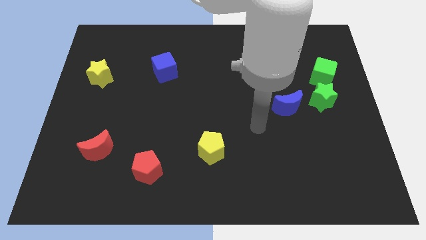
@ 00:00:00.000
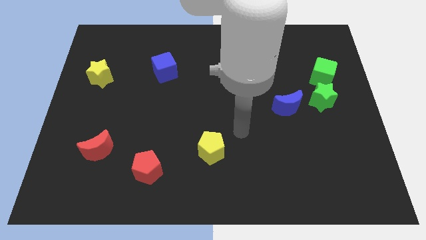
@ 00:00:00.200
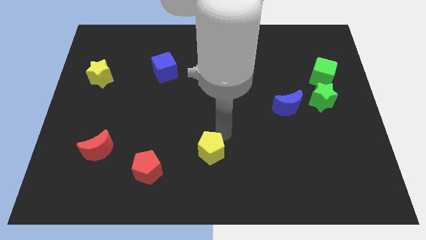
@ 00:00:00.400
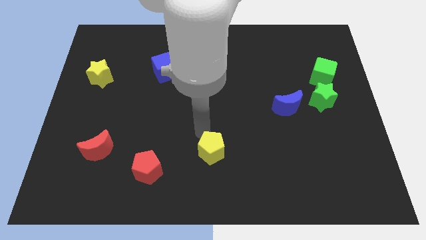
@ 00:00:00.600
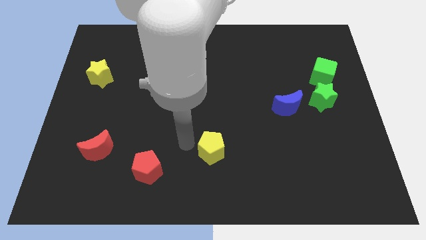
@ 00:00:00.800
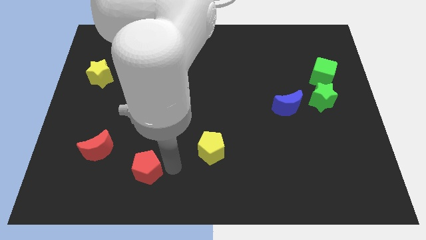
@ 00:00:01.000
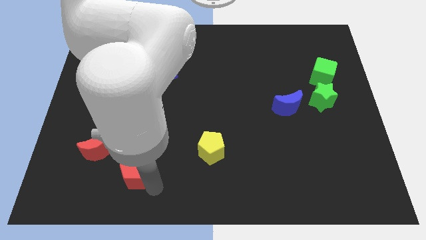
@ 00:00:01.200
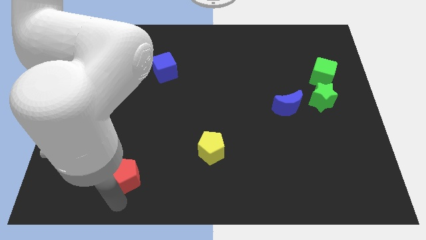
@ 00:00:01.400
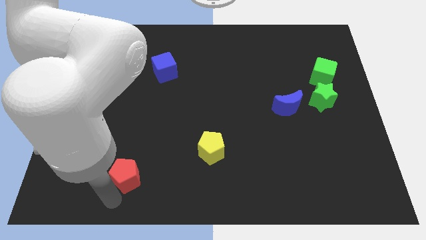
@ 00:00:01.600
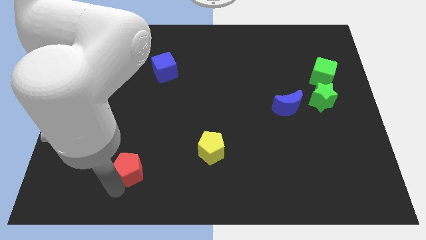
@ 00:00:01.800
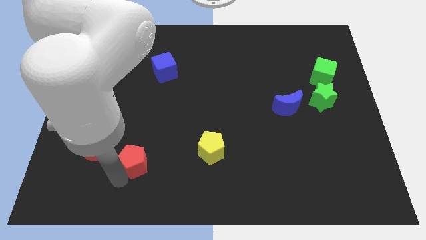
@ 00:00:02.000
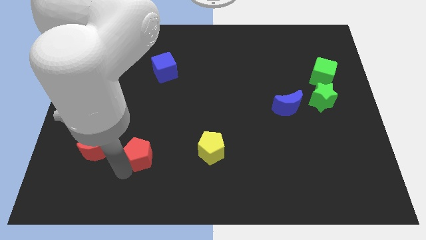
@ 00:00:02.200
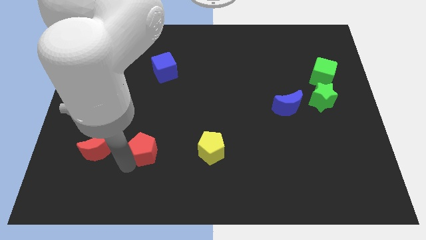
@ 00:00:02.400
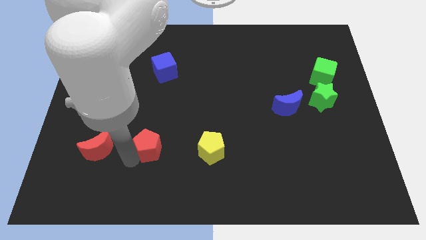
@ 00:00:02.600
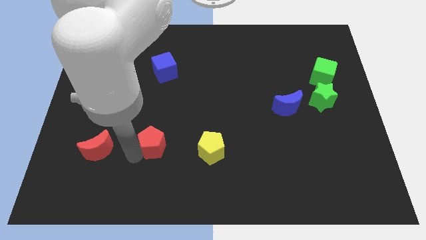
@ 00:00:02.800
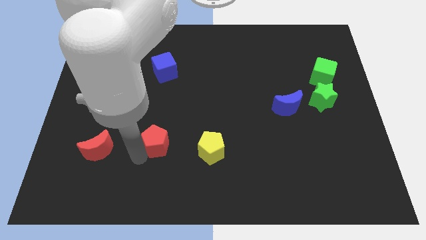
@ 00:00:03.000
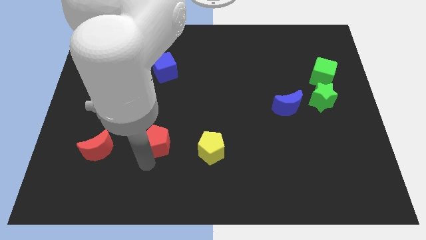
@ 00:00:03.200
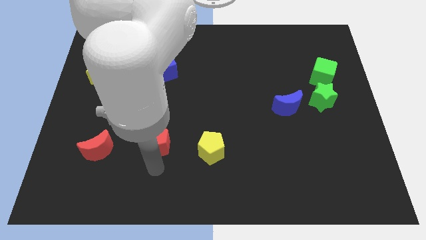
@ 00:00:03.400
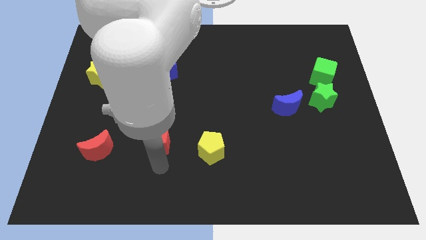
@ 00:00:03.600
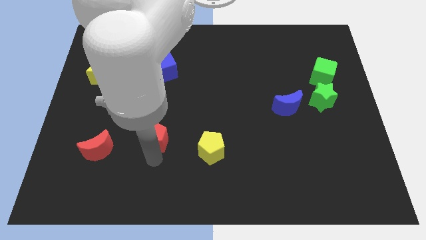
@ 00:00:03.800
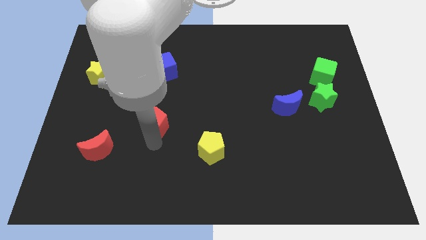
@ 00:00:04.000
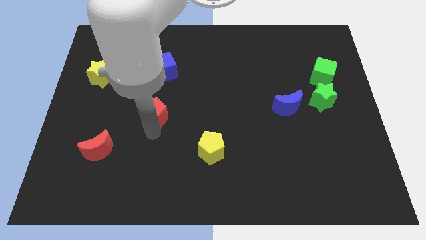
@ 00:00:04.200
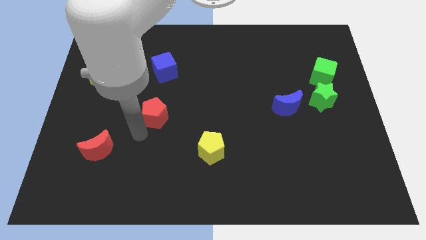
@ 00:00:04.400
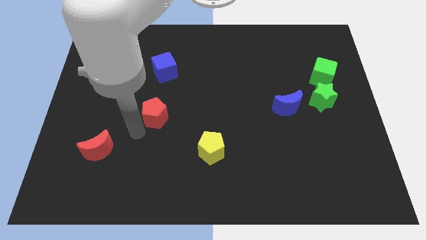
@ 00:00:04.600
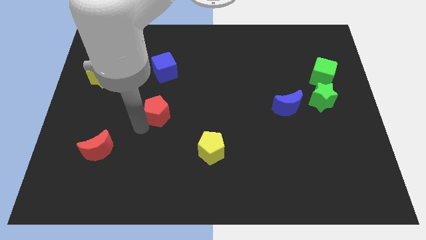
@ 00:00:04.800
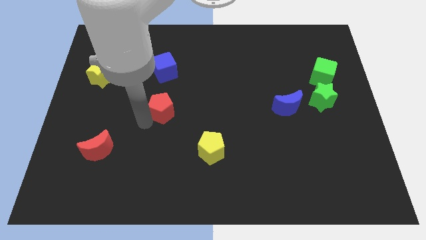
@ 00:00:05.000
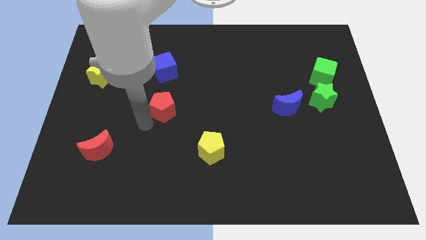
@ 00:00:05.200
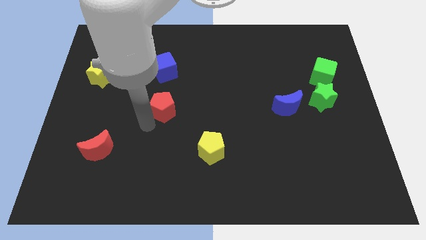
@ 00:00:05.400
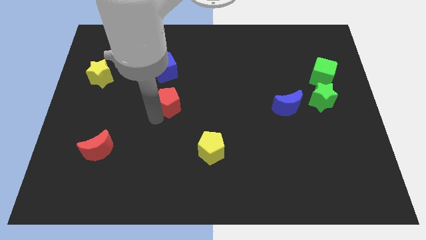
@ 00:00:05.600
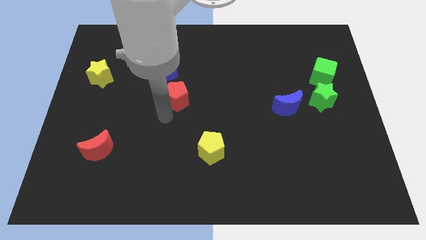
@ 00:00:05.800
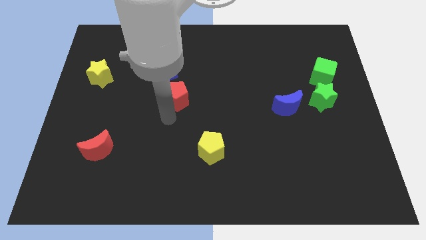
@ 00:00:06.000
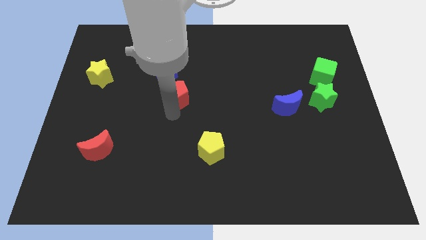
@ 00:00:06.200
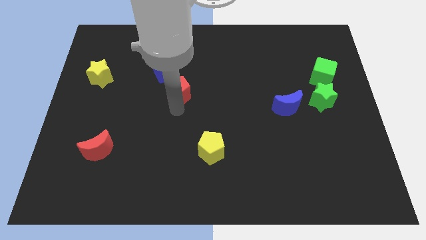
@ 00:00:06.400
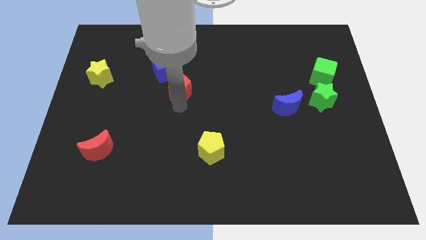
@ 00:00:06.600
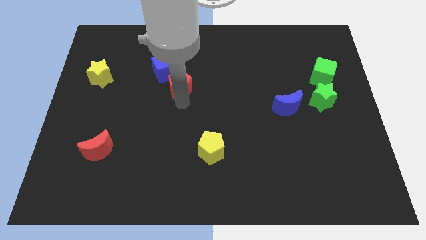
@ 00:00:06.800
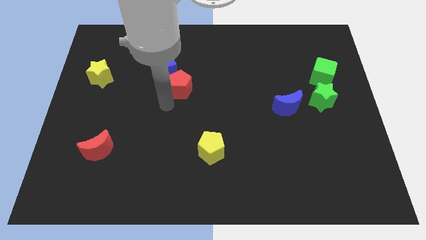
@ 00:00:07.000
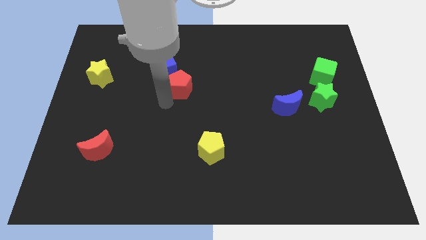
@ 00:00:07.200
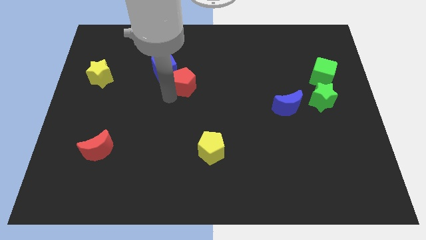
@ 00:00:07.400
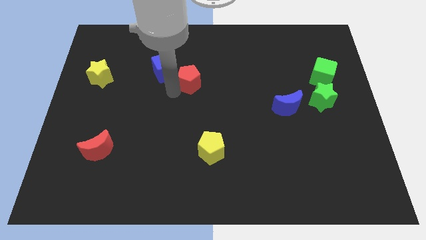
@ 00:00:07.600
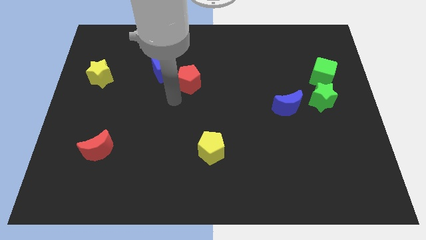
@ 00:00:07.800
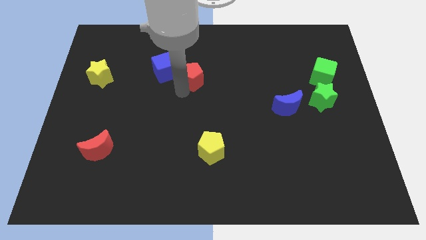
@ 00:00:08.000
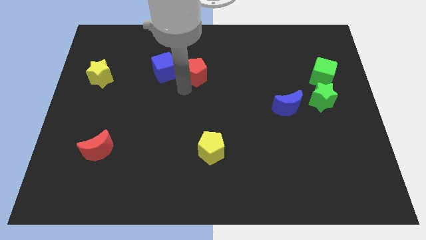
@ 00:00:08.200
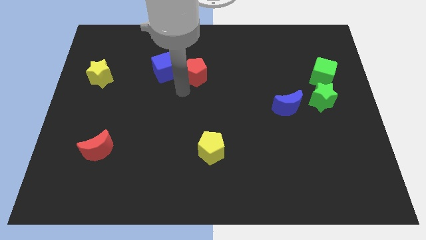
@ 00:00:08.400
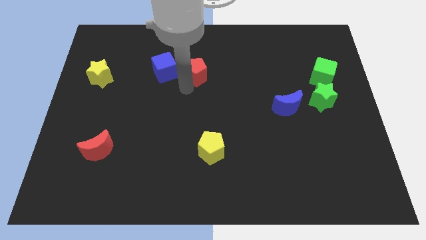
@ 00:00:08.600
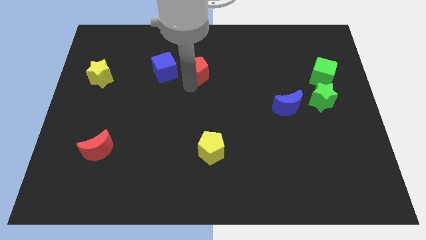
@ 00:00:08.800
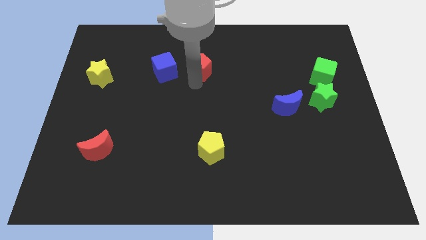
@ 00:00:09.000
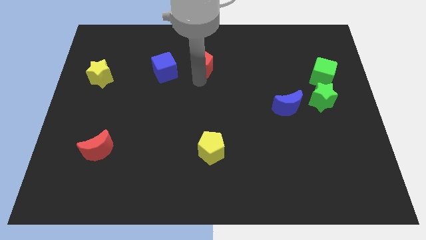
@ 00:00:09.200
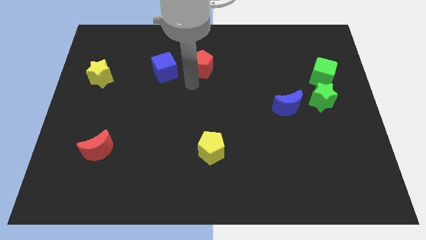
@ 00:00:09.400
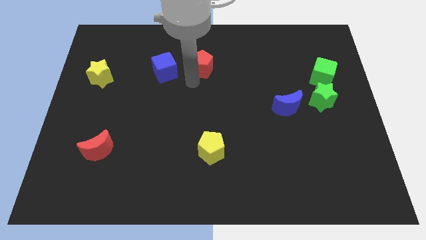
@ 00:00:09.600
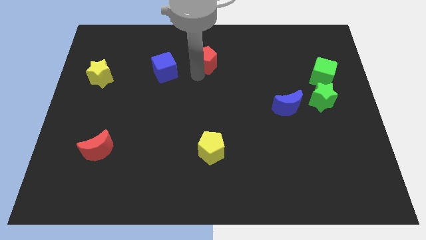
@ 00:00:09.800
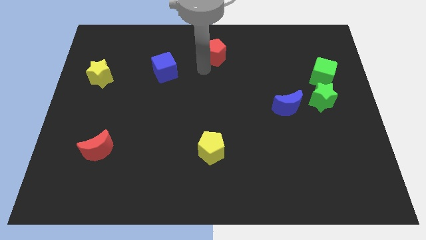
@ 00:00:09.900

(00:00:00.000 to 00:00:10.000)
move the red pentagon to the towards your base

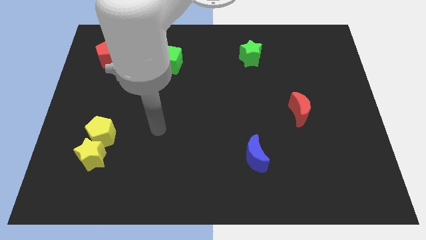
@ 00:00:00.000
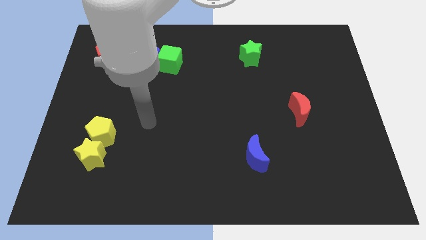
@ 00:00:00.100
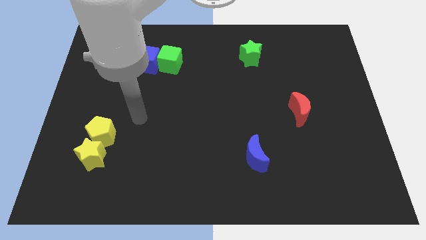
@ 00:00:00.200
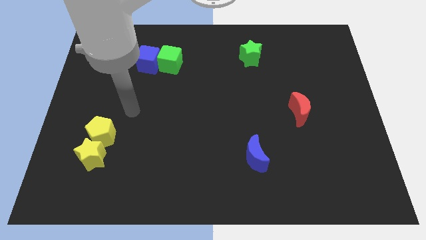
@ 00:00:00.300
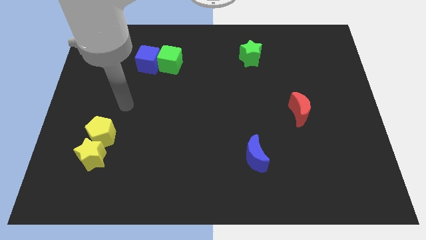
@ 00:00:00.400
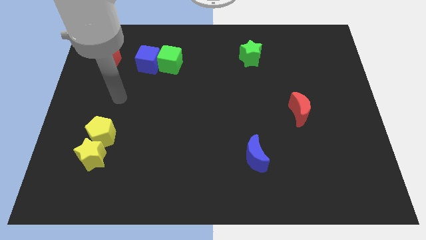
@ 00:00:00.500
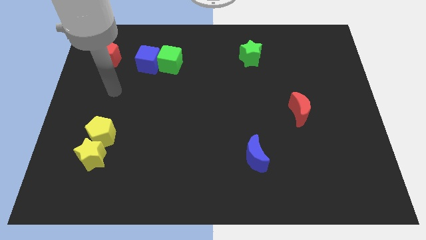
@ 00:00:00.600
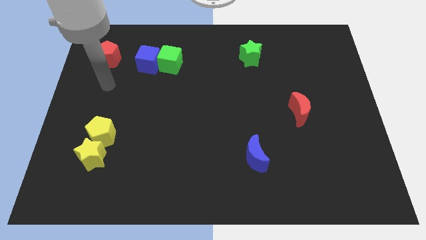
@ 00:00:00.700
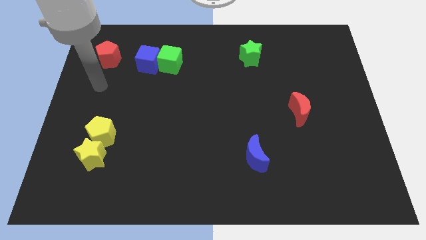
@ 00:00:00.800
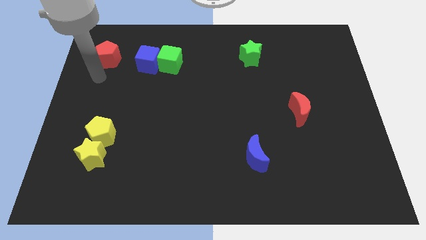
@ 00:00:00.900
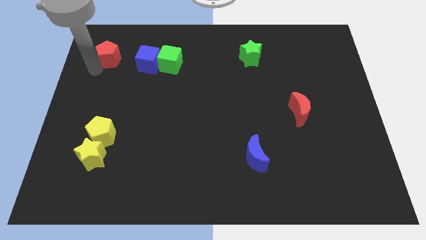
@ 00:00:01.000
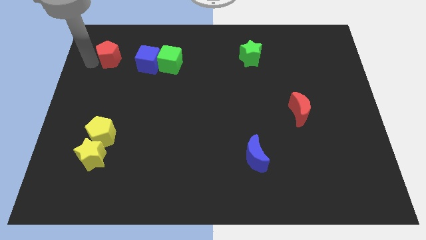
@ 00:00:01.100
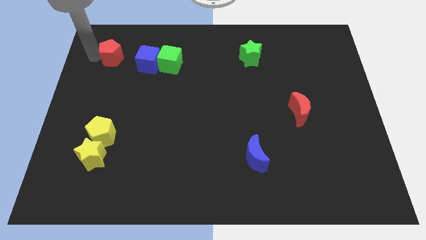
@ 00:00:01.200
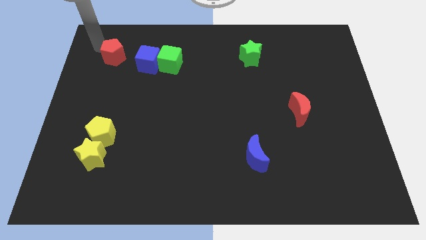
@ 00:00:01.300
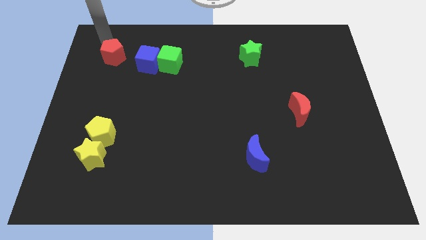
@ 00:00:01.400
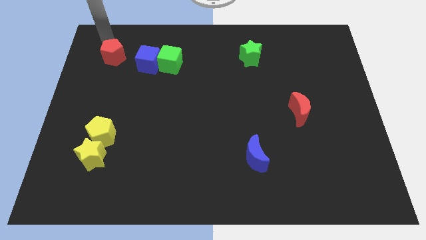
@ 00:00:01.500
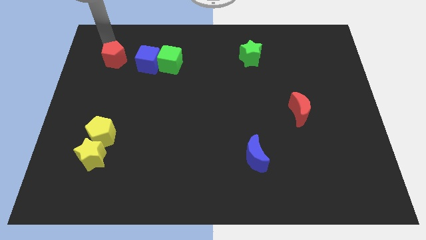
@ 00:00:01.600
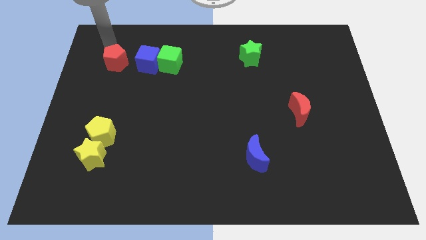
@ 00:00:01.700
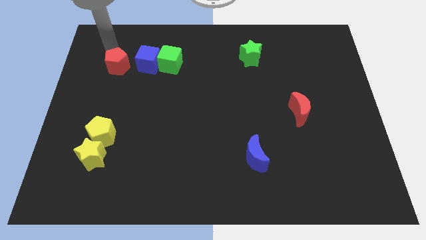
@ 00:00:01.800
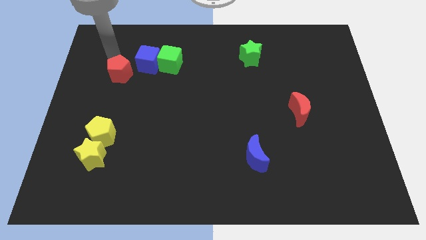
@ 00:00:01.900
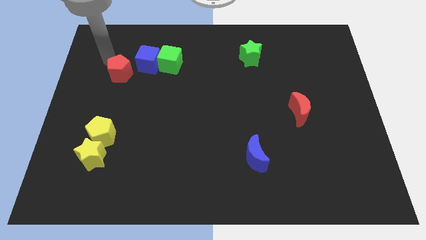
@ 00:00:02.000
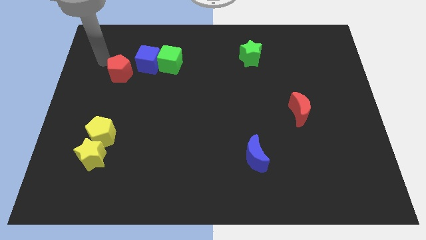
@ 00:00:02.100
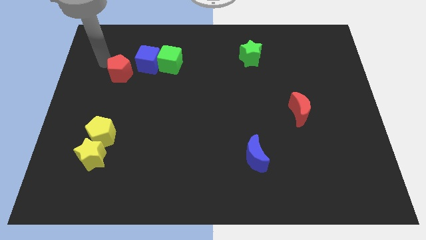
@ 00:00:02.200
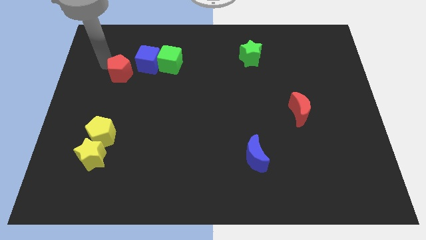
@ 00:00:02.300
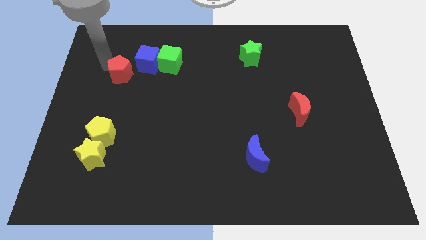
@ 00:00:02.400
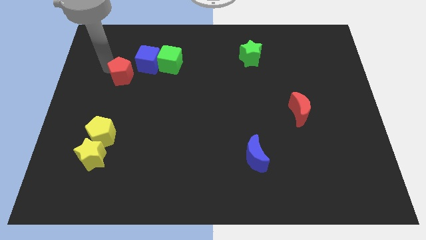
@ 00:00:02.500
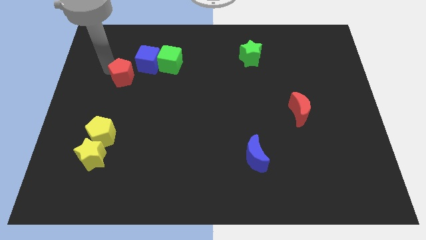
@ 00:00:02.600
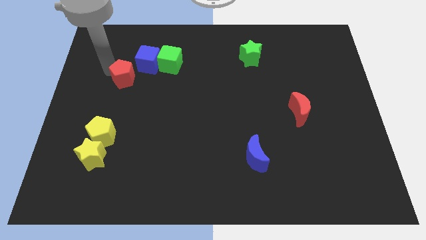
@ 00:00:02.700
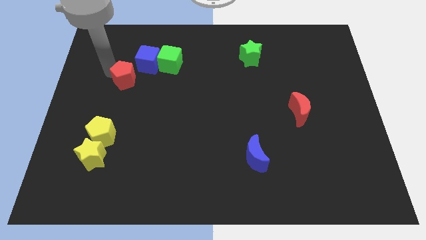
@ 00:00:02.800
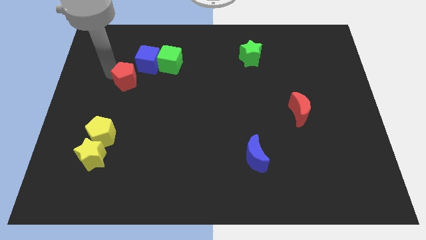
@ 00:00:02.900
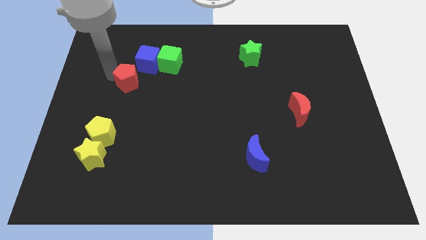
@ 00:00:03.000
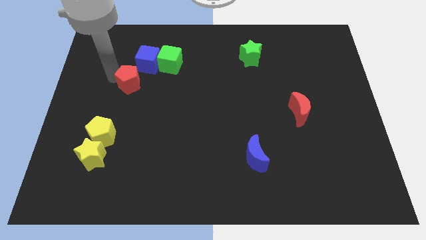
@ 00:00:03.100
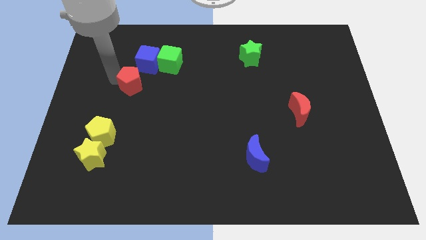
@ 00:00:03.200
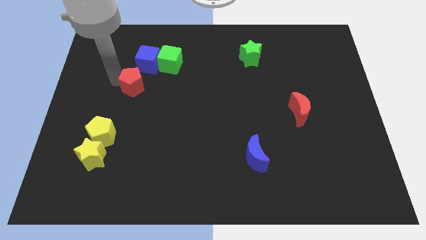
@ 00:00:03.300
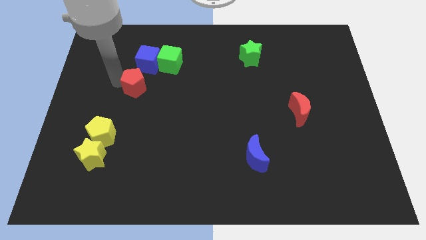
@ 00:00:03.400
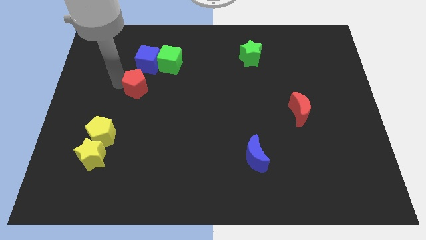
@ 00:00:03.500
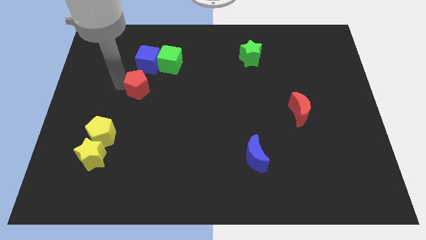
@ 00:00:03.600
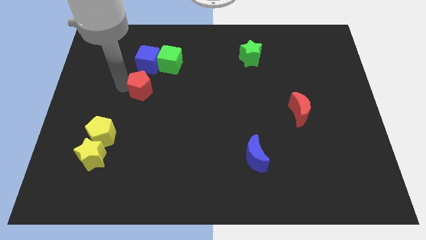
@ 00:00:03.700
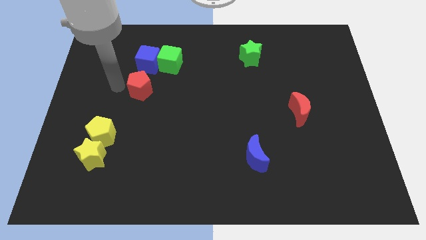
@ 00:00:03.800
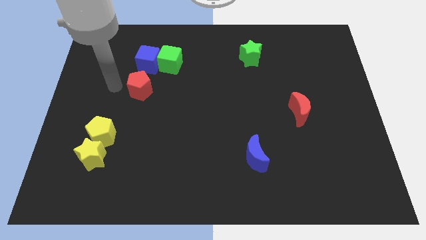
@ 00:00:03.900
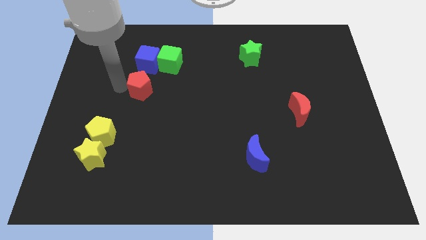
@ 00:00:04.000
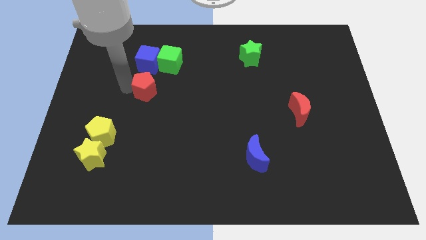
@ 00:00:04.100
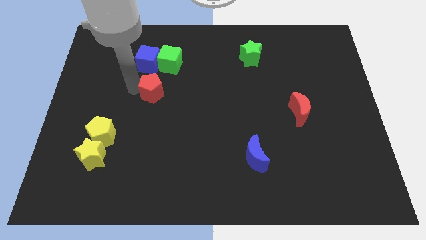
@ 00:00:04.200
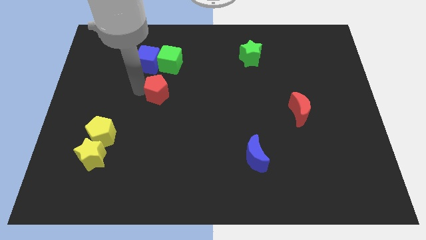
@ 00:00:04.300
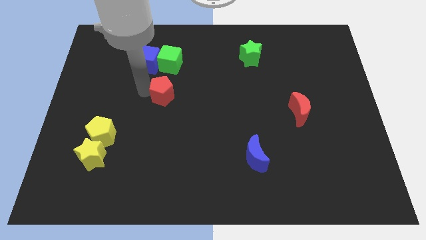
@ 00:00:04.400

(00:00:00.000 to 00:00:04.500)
push the red pentagon to the center
